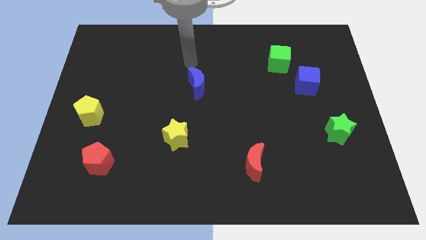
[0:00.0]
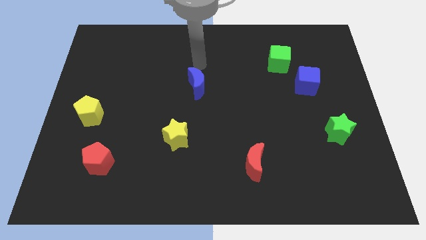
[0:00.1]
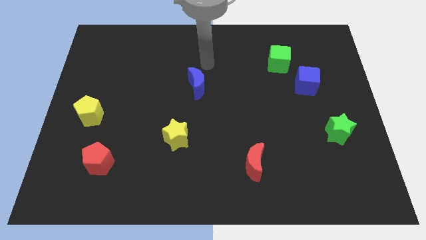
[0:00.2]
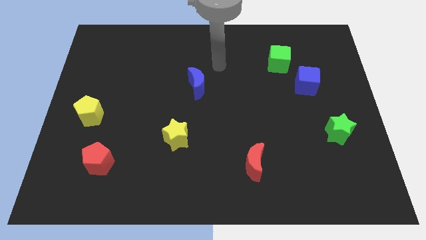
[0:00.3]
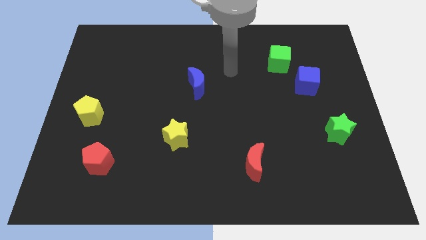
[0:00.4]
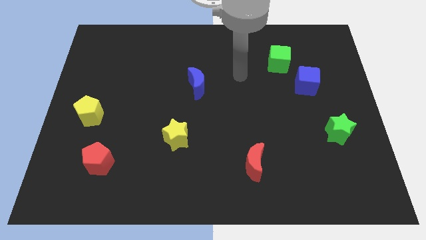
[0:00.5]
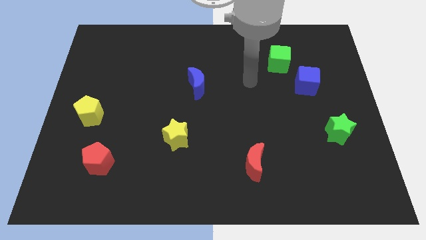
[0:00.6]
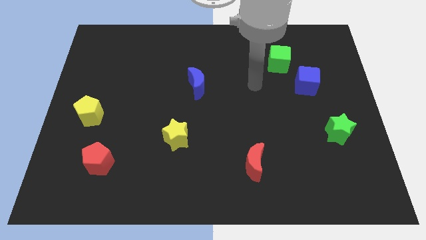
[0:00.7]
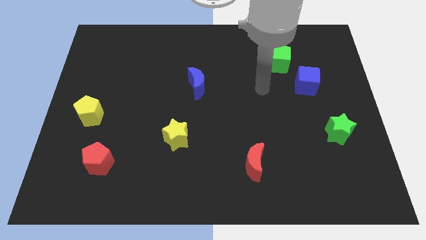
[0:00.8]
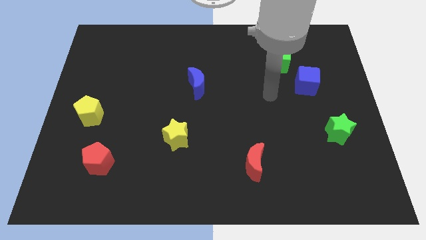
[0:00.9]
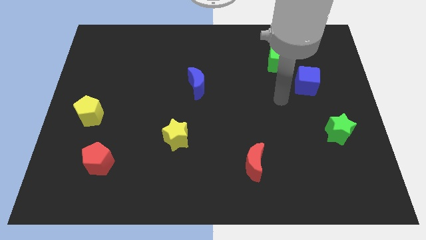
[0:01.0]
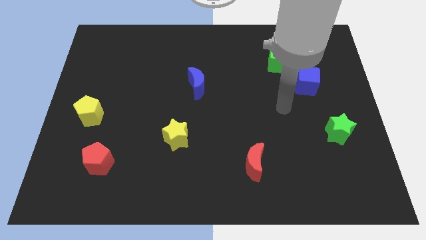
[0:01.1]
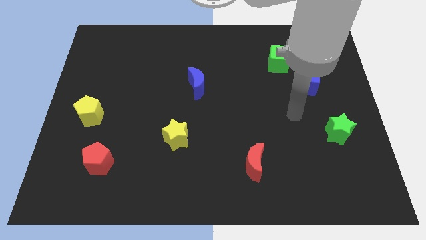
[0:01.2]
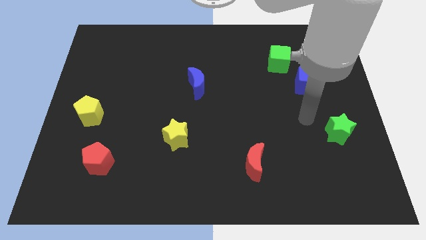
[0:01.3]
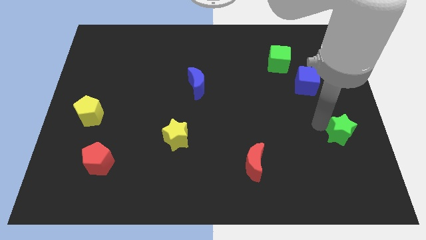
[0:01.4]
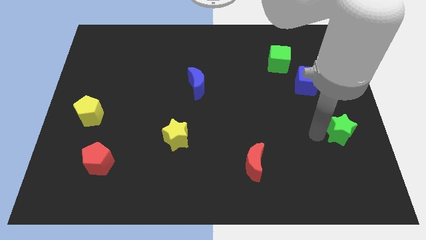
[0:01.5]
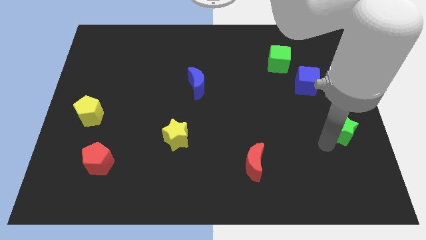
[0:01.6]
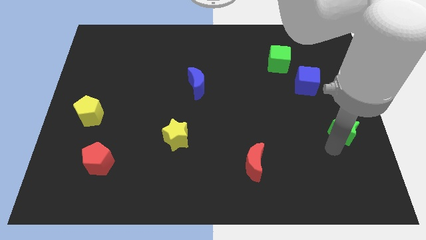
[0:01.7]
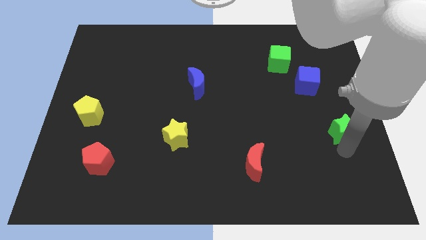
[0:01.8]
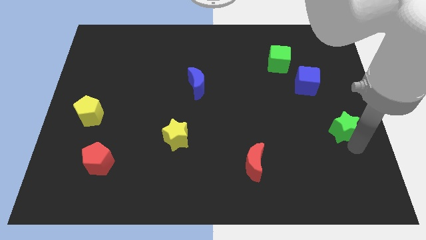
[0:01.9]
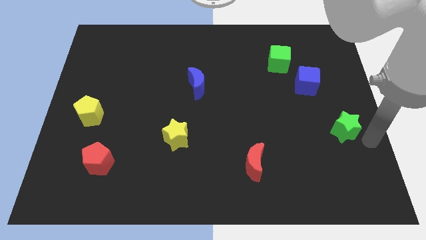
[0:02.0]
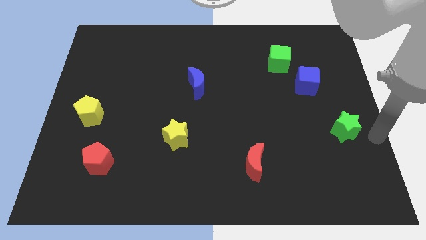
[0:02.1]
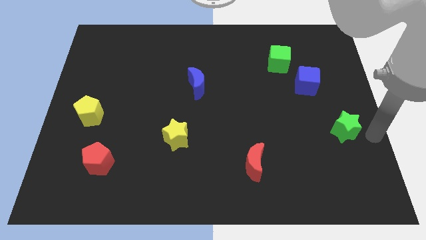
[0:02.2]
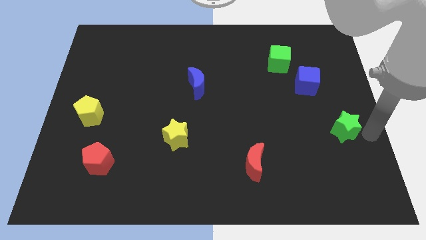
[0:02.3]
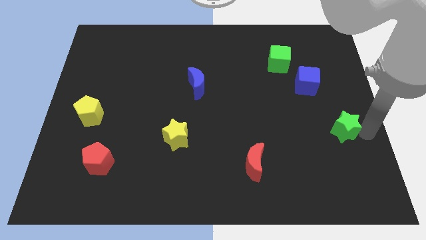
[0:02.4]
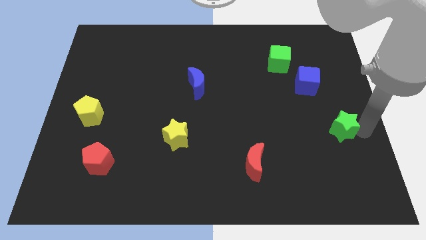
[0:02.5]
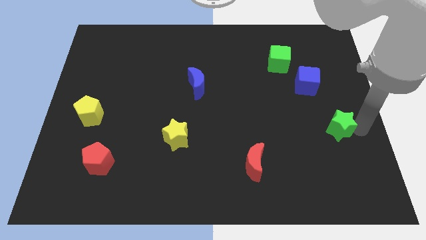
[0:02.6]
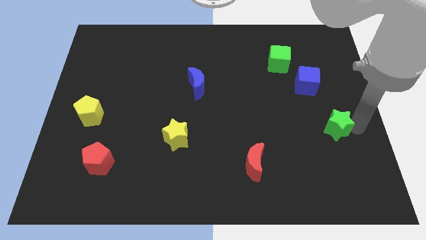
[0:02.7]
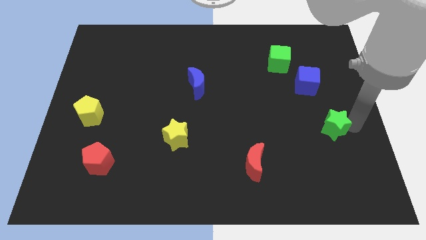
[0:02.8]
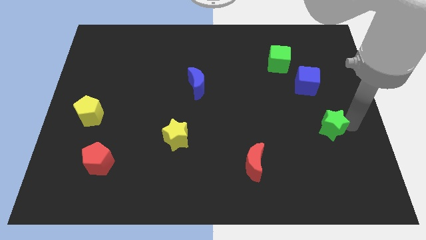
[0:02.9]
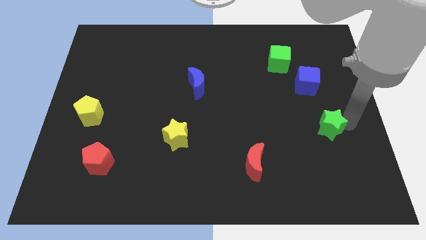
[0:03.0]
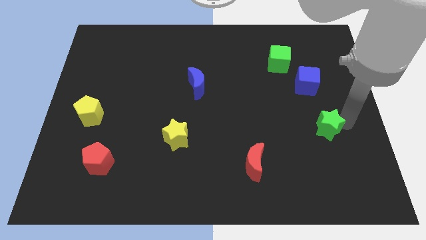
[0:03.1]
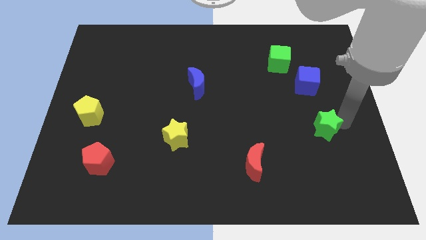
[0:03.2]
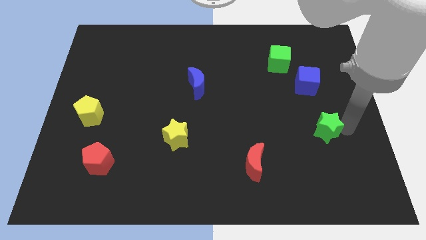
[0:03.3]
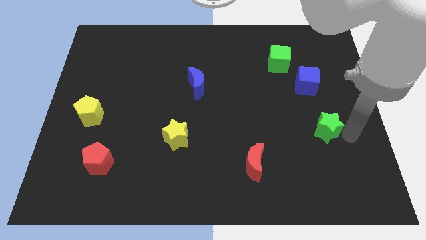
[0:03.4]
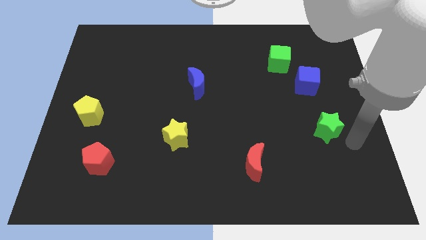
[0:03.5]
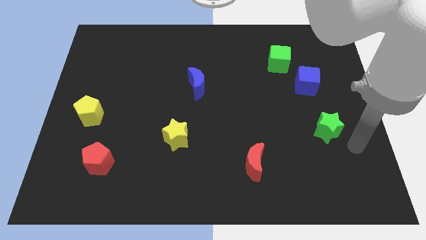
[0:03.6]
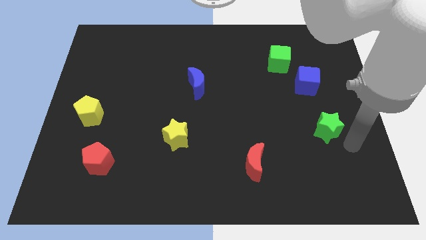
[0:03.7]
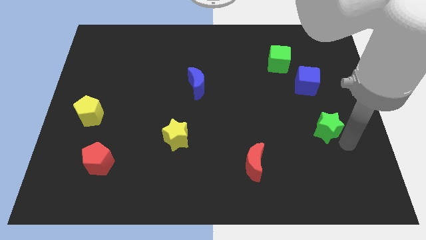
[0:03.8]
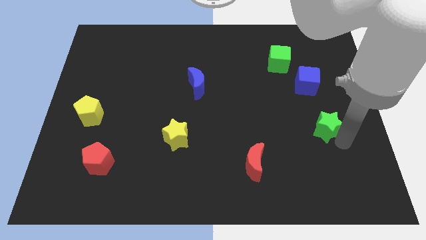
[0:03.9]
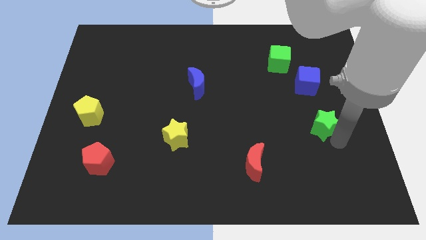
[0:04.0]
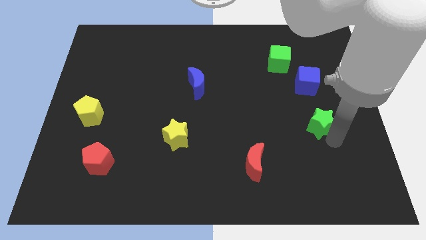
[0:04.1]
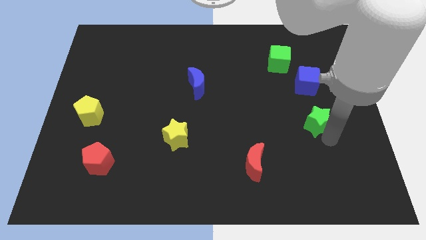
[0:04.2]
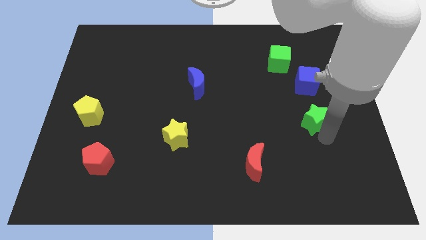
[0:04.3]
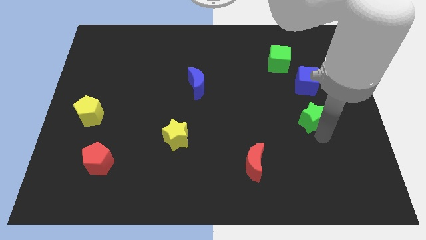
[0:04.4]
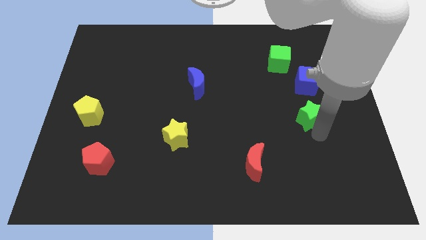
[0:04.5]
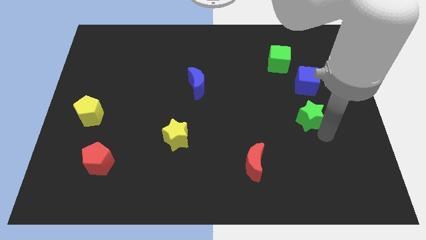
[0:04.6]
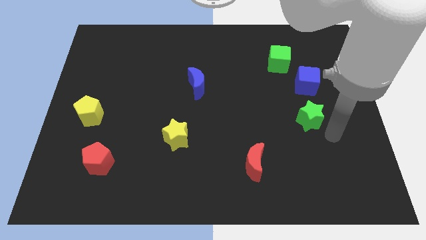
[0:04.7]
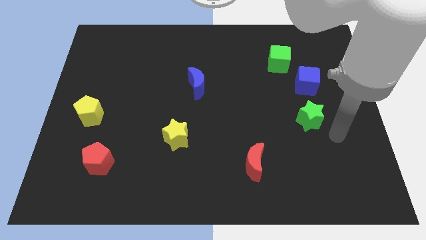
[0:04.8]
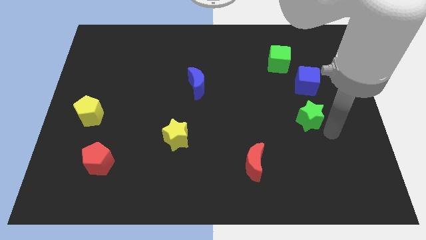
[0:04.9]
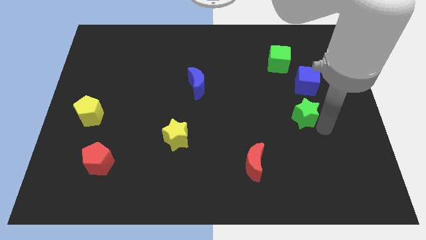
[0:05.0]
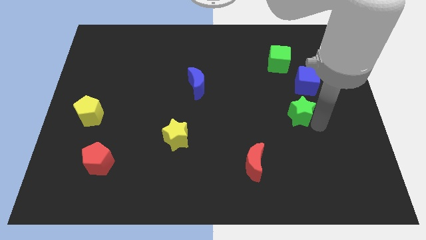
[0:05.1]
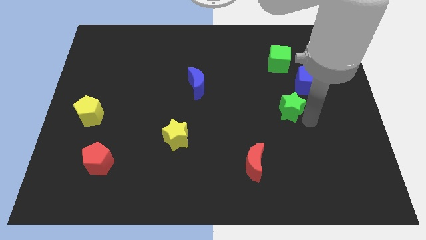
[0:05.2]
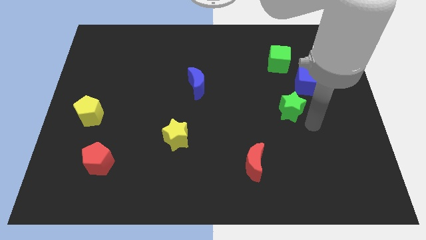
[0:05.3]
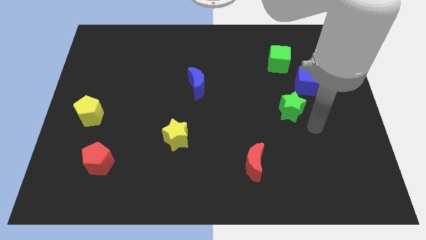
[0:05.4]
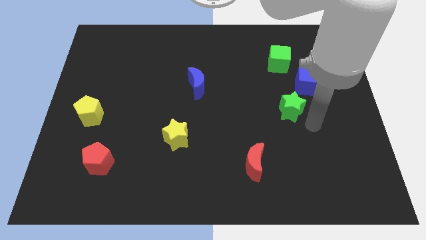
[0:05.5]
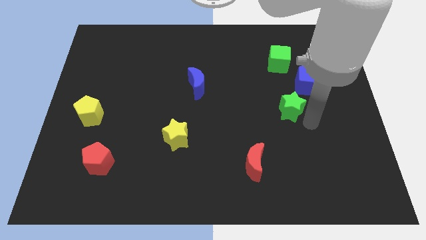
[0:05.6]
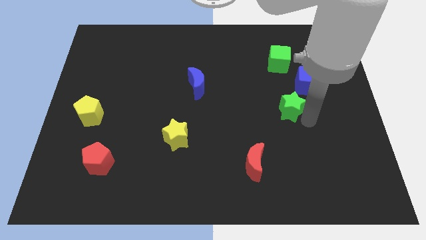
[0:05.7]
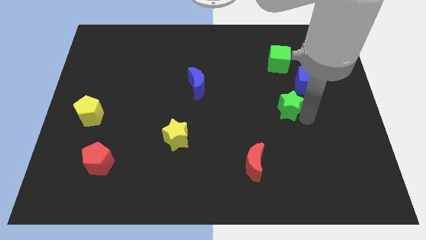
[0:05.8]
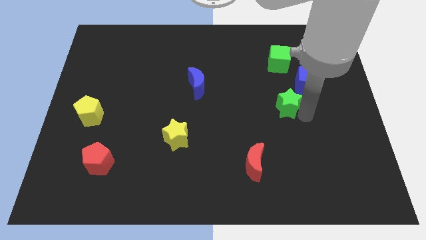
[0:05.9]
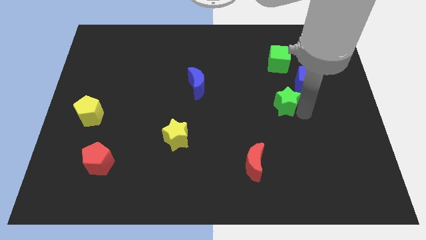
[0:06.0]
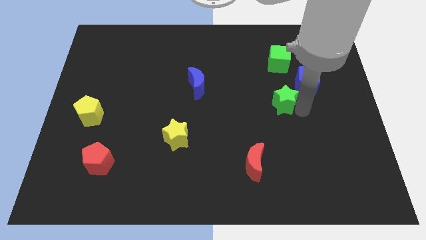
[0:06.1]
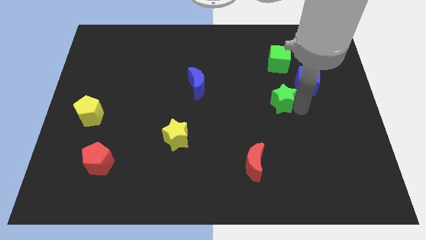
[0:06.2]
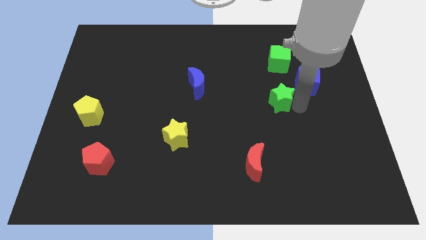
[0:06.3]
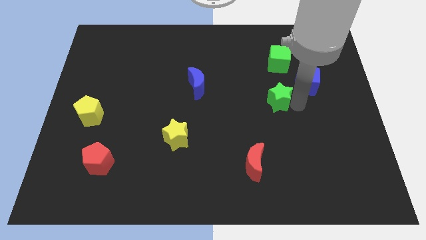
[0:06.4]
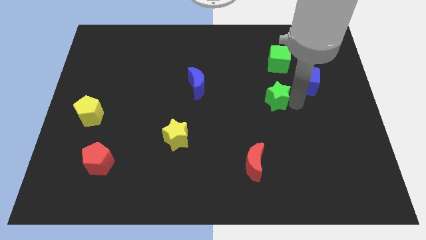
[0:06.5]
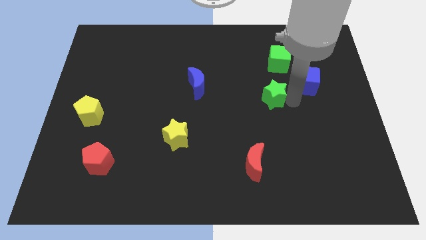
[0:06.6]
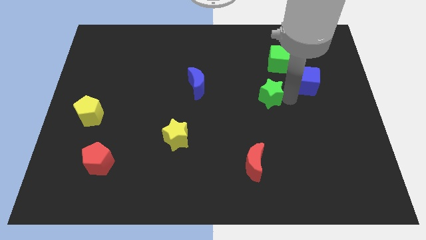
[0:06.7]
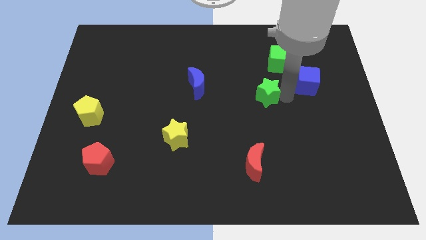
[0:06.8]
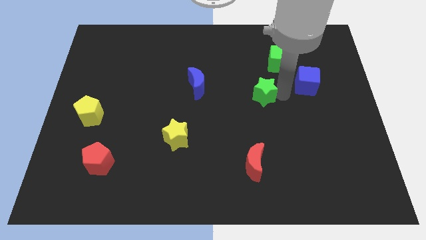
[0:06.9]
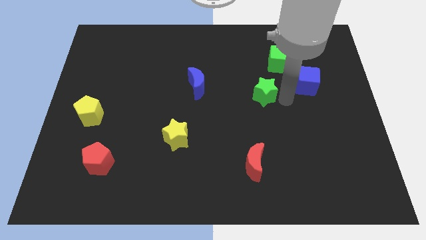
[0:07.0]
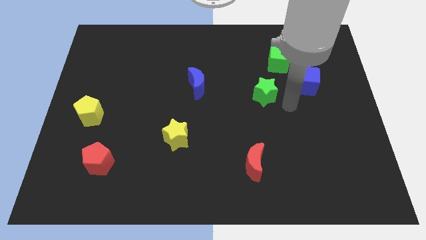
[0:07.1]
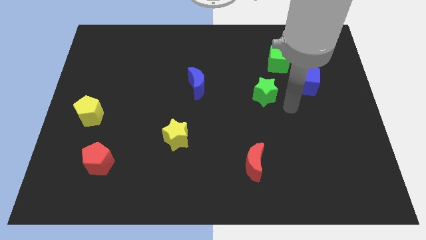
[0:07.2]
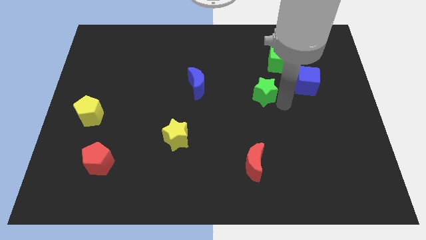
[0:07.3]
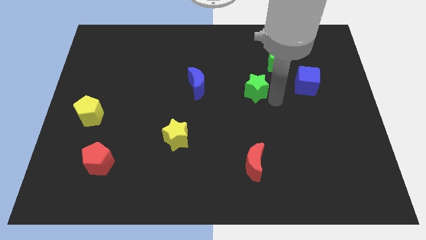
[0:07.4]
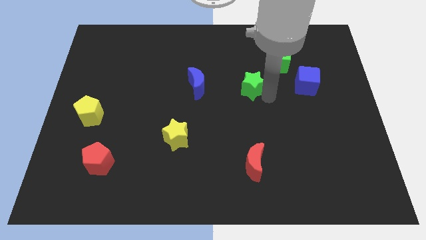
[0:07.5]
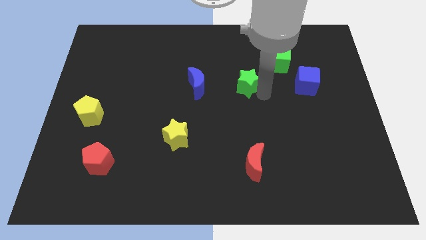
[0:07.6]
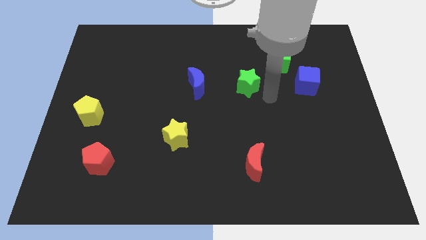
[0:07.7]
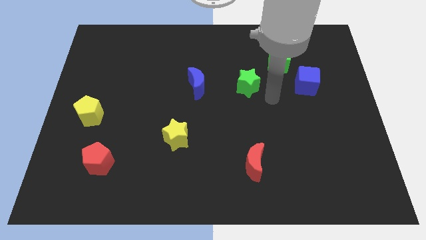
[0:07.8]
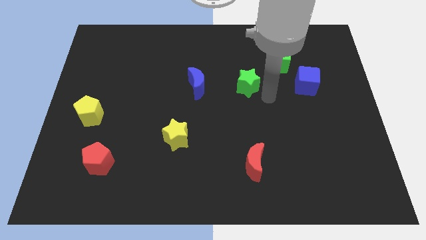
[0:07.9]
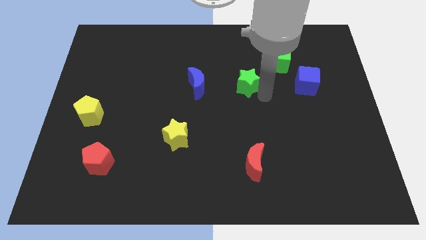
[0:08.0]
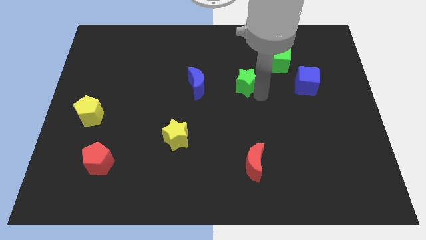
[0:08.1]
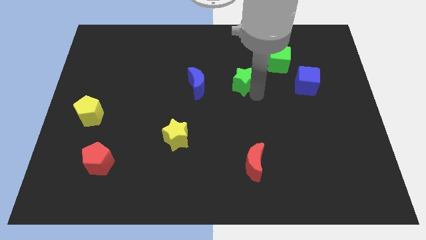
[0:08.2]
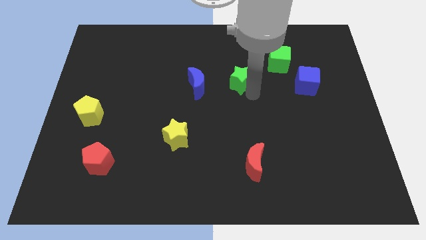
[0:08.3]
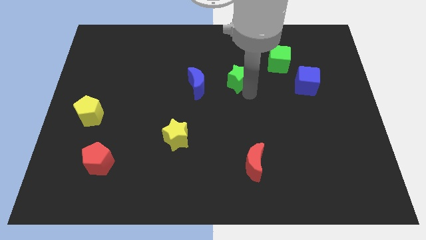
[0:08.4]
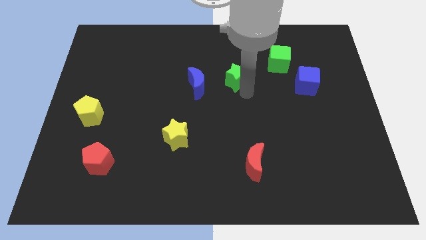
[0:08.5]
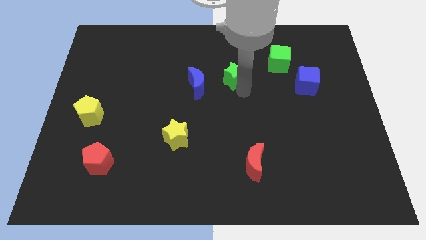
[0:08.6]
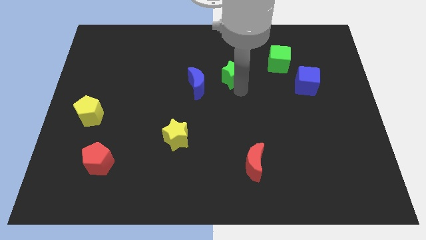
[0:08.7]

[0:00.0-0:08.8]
slide the green star to the top right side of the blue moon
